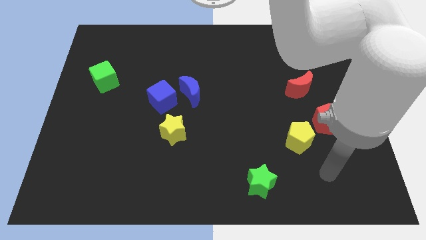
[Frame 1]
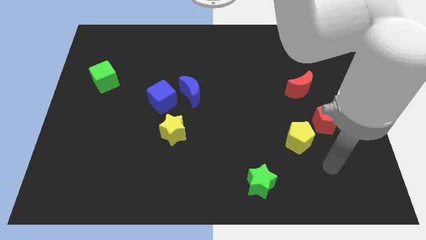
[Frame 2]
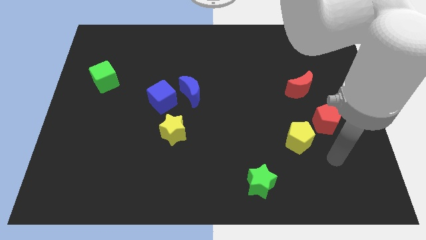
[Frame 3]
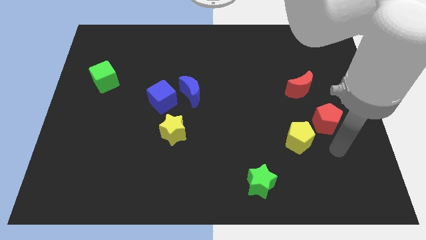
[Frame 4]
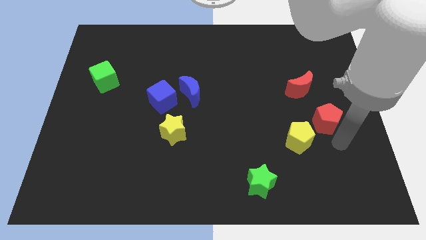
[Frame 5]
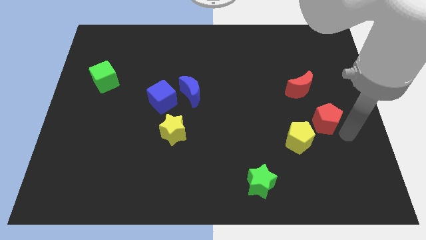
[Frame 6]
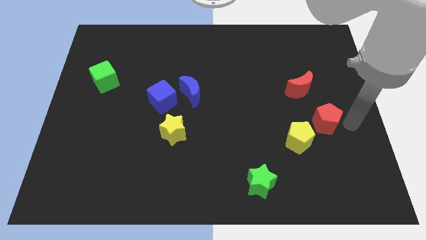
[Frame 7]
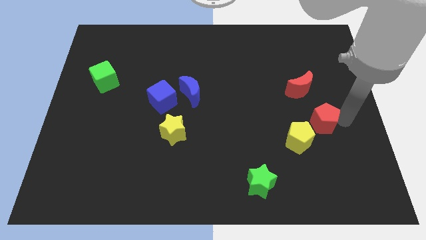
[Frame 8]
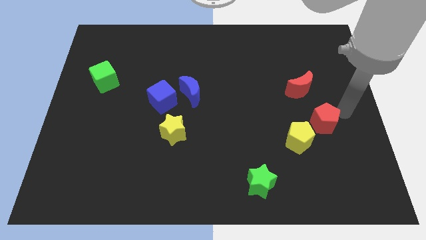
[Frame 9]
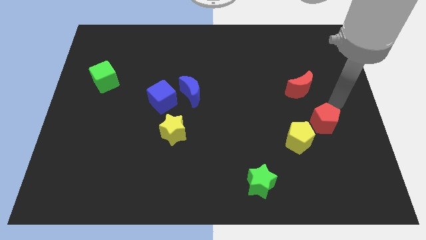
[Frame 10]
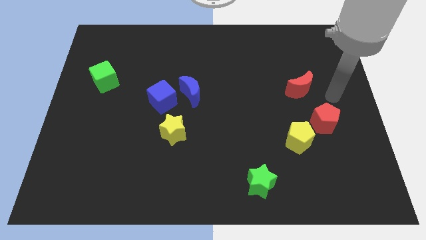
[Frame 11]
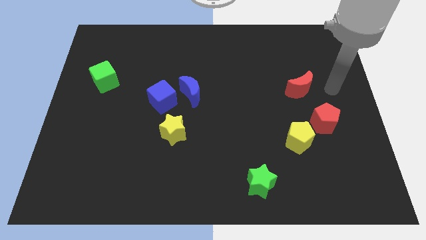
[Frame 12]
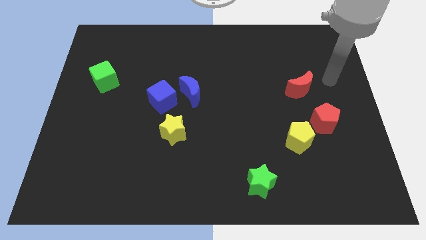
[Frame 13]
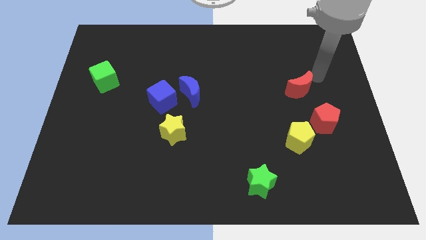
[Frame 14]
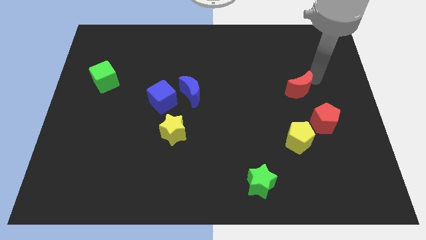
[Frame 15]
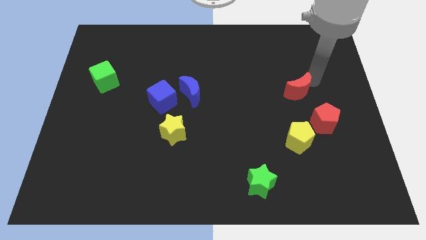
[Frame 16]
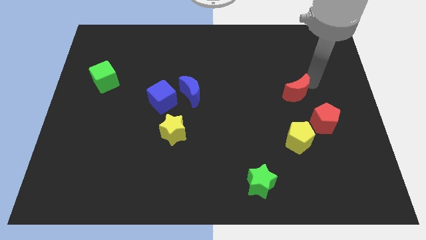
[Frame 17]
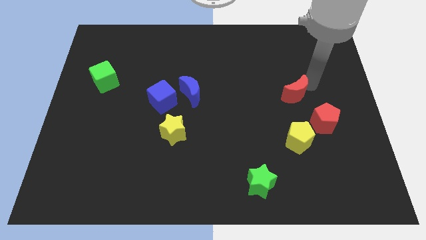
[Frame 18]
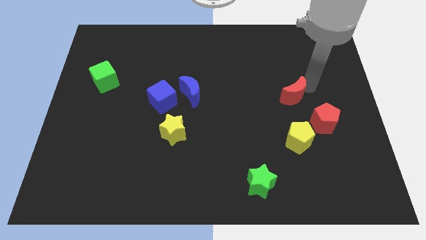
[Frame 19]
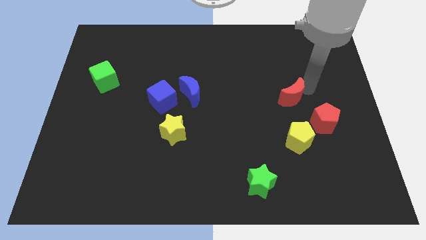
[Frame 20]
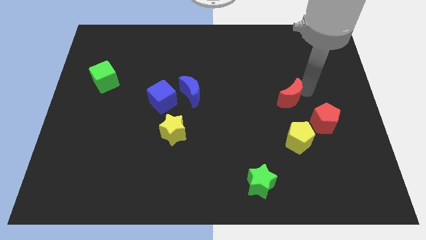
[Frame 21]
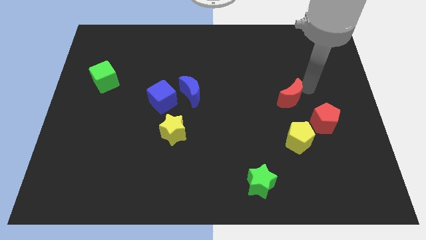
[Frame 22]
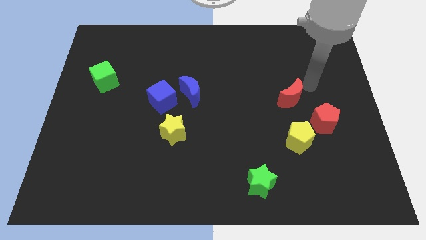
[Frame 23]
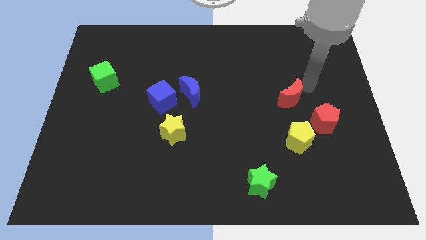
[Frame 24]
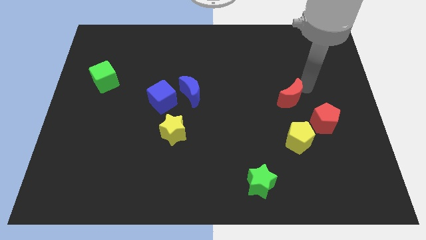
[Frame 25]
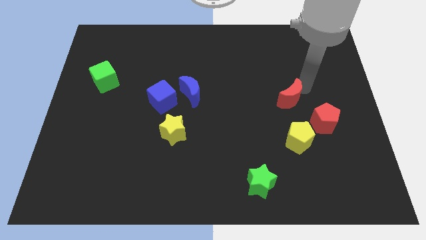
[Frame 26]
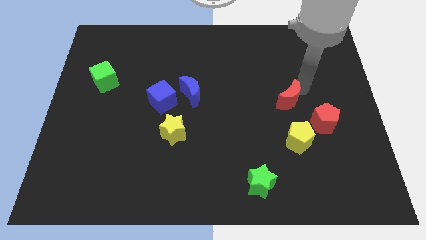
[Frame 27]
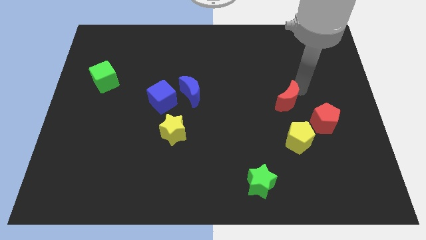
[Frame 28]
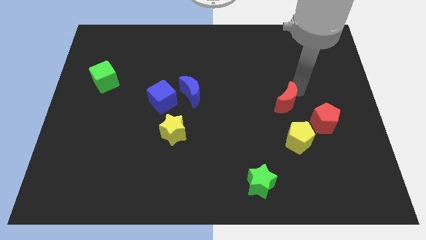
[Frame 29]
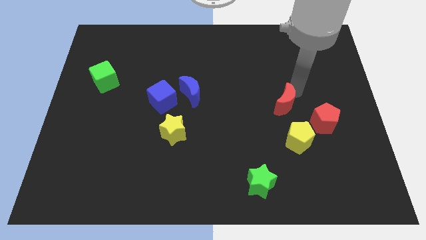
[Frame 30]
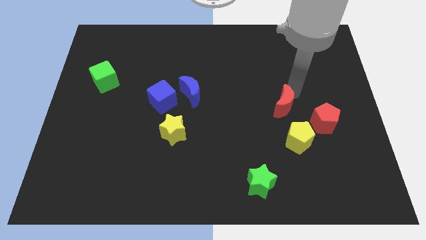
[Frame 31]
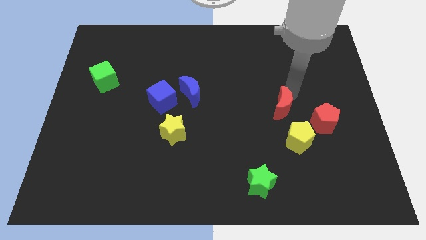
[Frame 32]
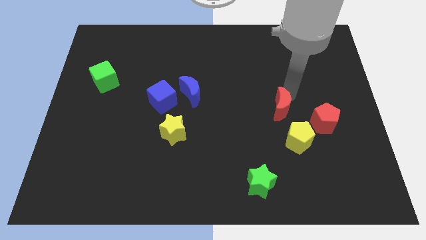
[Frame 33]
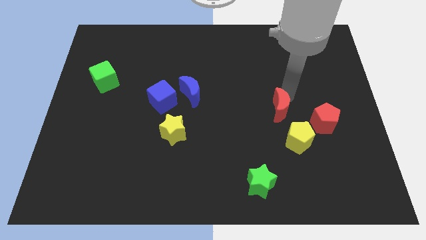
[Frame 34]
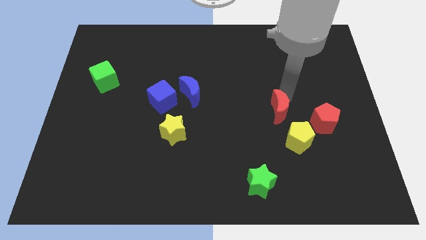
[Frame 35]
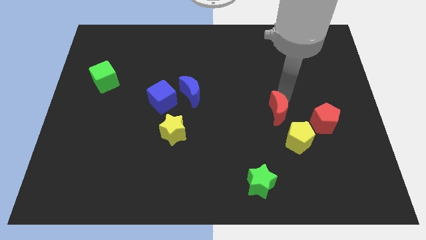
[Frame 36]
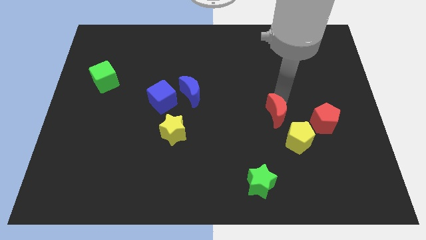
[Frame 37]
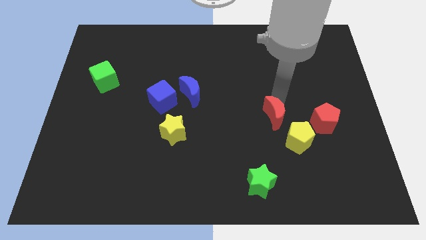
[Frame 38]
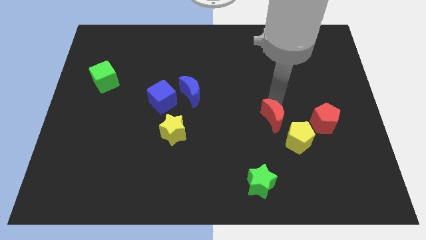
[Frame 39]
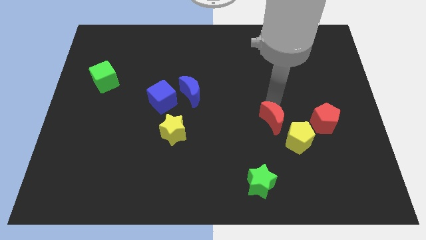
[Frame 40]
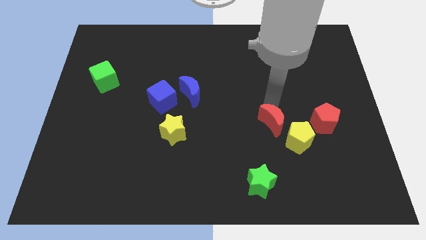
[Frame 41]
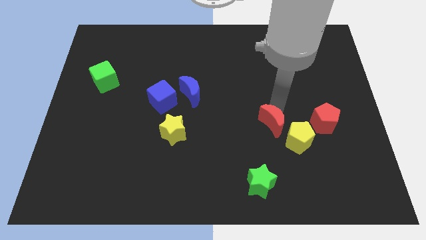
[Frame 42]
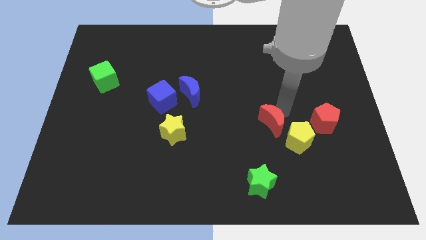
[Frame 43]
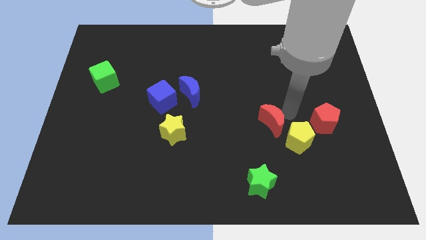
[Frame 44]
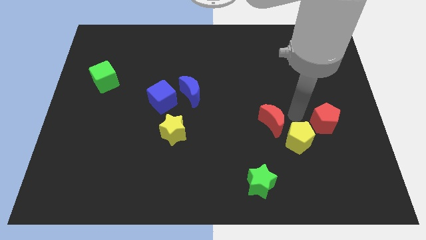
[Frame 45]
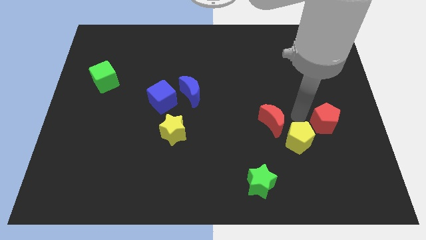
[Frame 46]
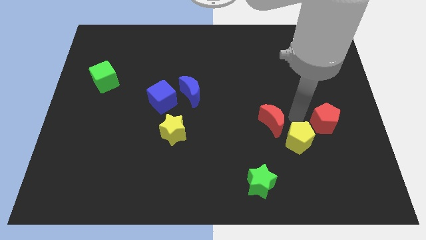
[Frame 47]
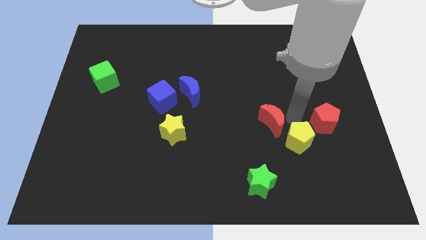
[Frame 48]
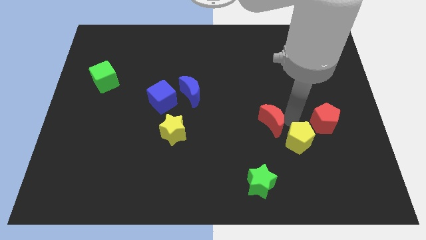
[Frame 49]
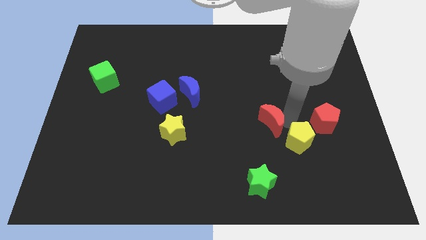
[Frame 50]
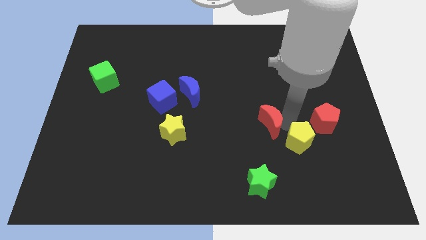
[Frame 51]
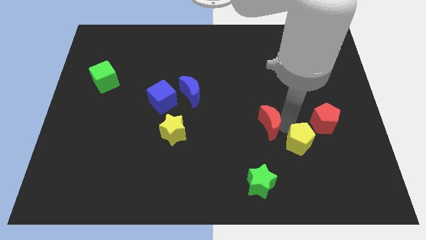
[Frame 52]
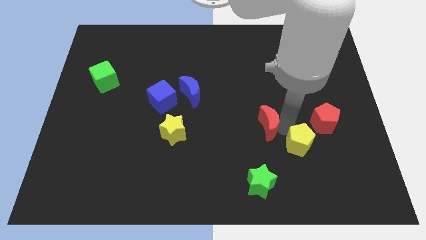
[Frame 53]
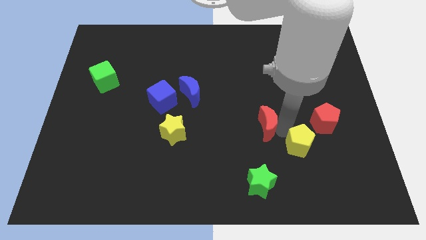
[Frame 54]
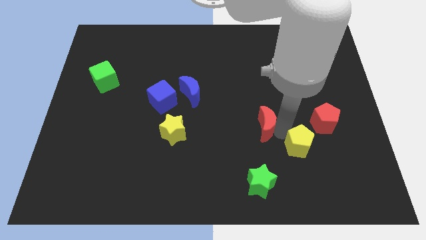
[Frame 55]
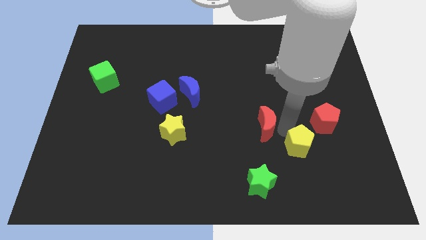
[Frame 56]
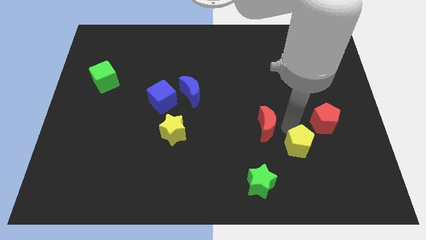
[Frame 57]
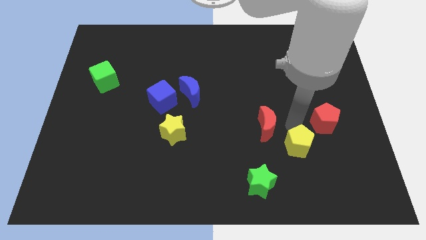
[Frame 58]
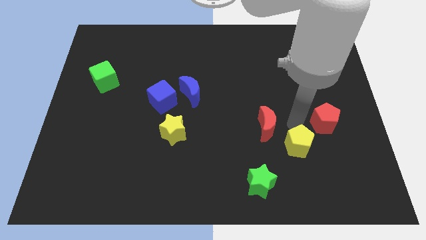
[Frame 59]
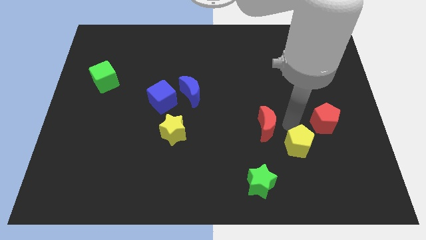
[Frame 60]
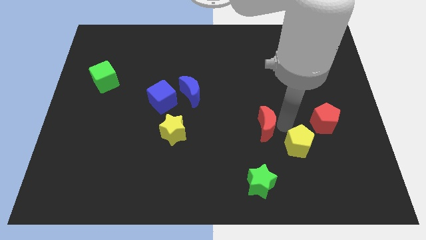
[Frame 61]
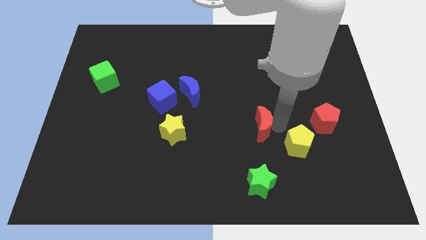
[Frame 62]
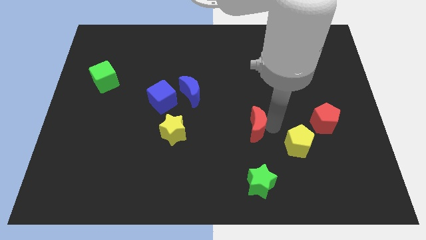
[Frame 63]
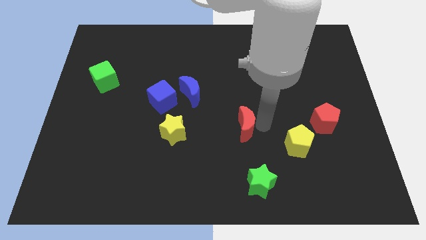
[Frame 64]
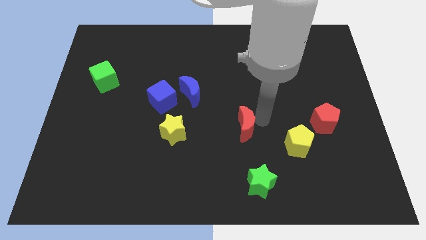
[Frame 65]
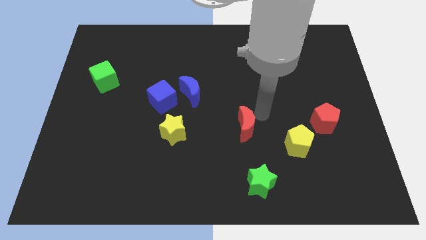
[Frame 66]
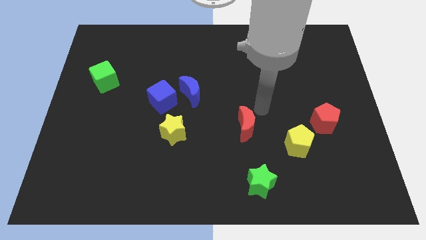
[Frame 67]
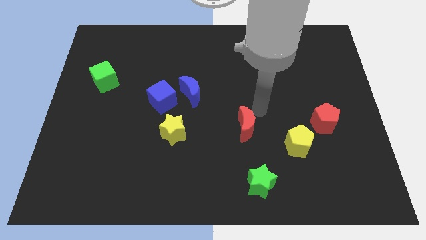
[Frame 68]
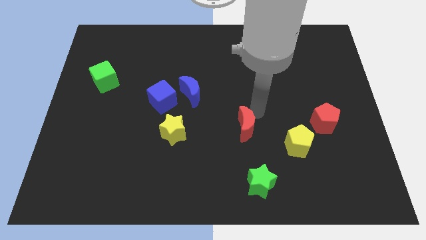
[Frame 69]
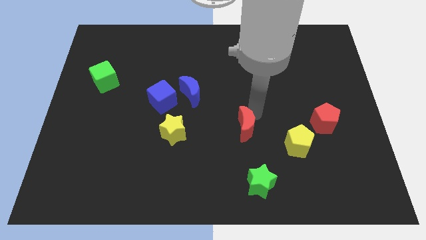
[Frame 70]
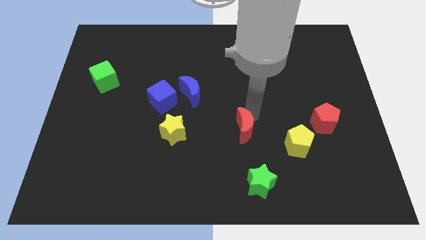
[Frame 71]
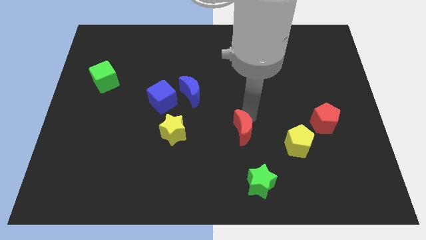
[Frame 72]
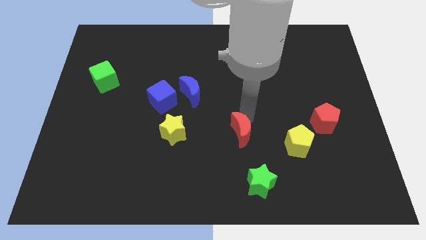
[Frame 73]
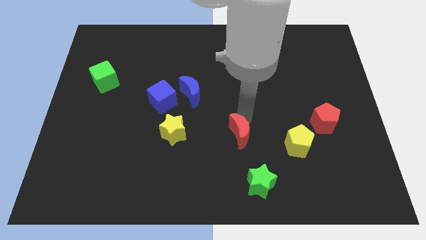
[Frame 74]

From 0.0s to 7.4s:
move the red moon down and left diagonally

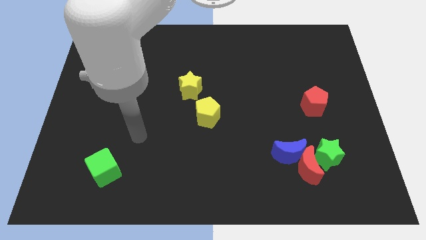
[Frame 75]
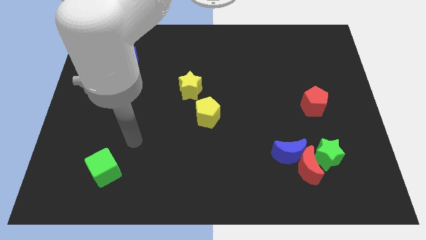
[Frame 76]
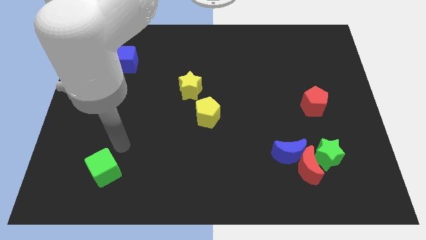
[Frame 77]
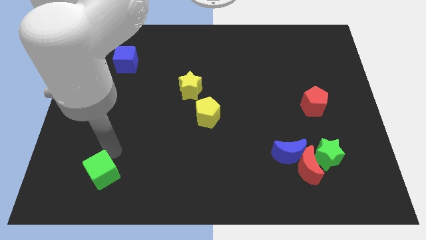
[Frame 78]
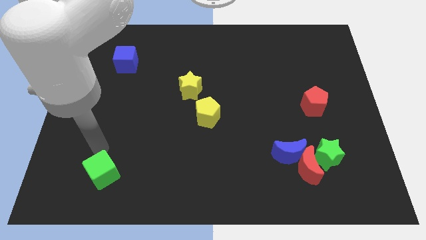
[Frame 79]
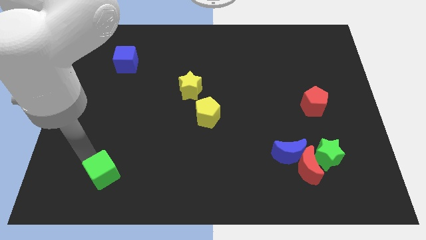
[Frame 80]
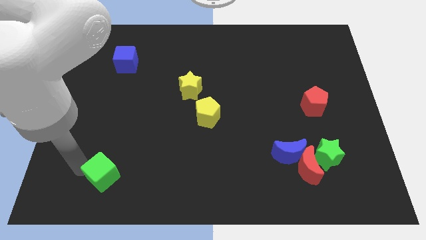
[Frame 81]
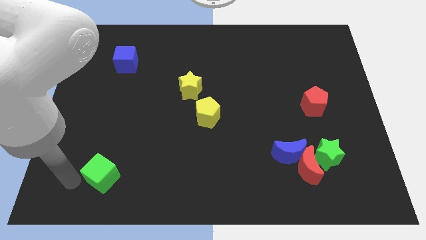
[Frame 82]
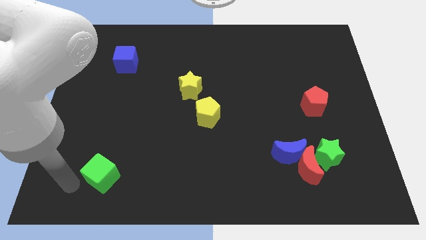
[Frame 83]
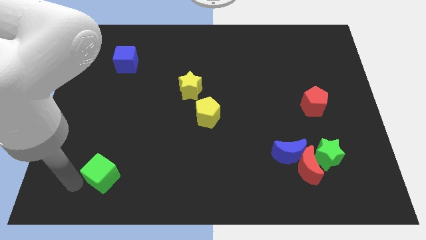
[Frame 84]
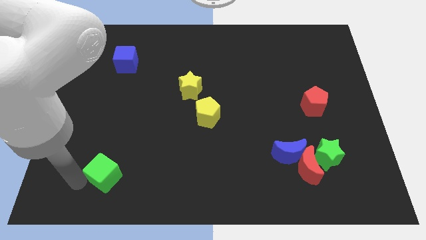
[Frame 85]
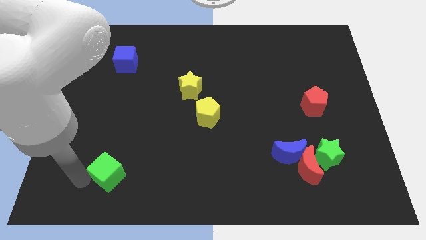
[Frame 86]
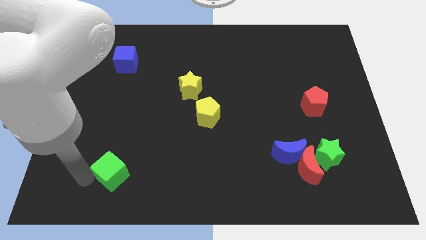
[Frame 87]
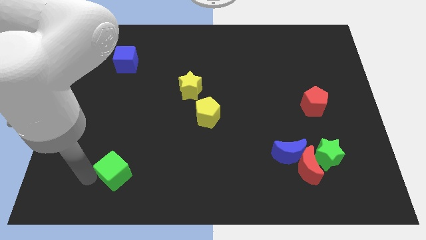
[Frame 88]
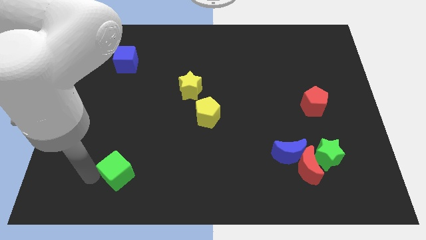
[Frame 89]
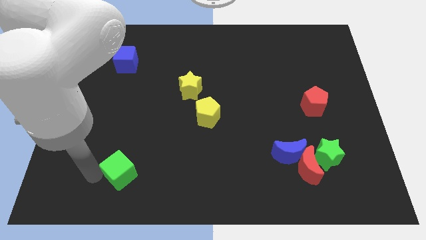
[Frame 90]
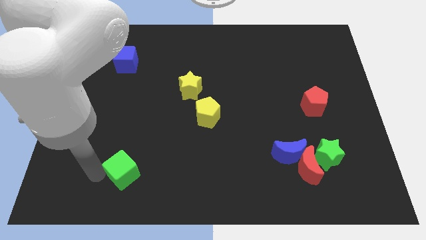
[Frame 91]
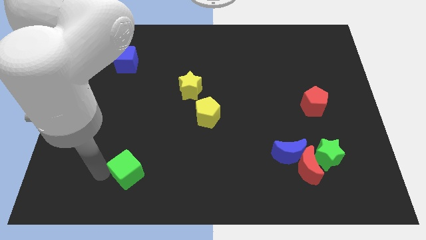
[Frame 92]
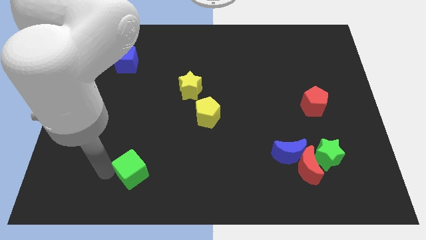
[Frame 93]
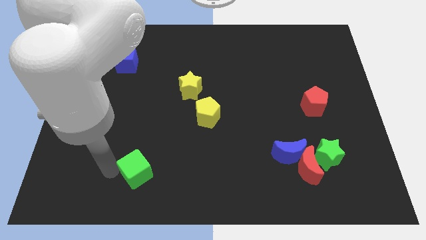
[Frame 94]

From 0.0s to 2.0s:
push the green cube a little to the right
